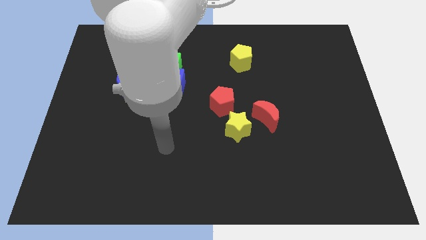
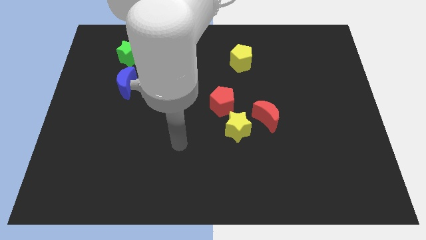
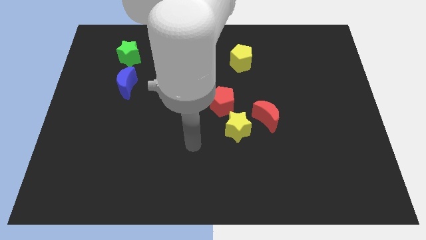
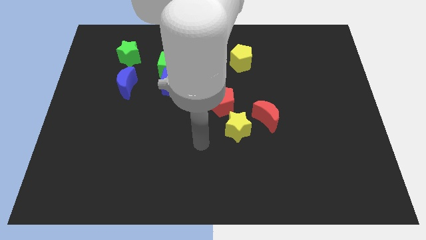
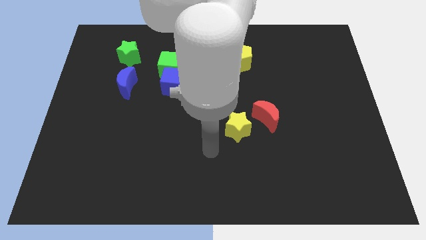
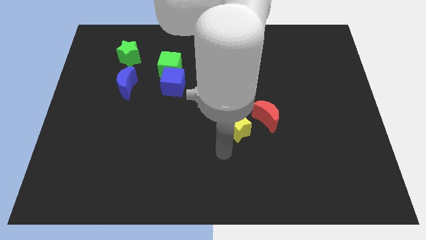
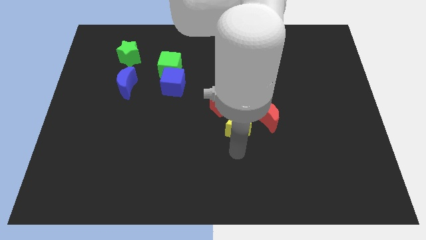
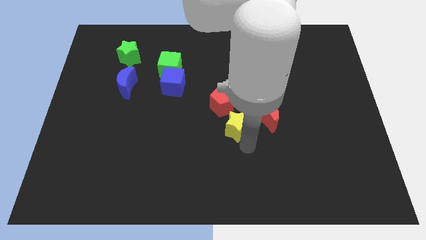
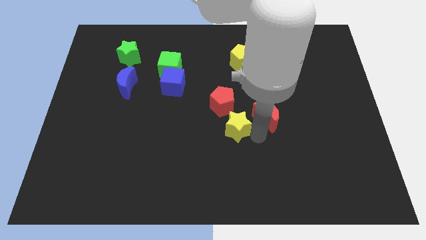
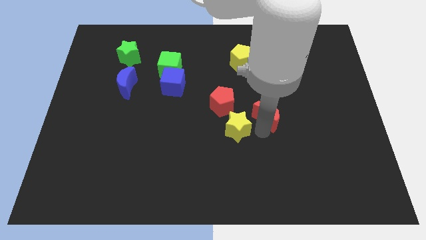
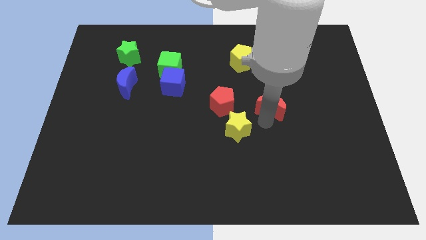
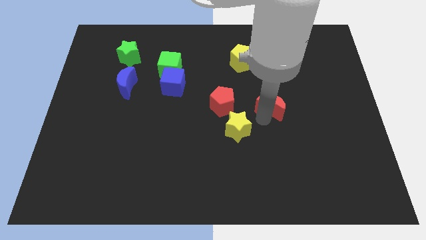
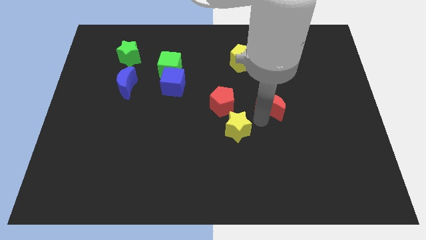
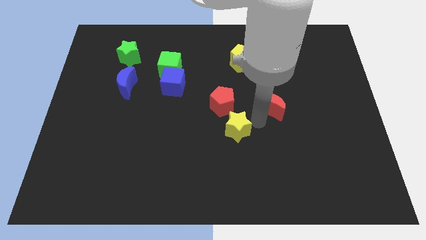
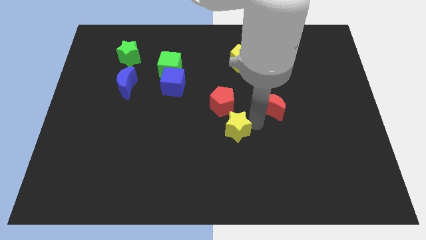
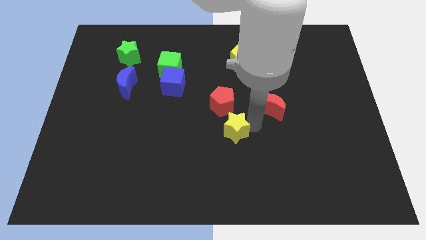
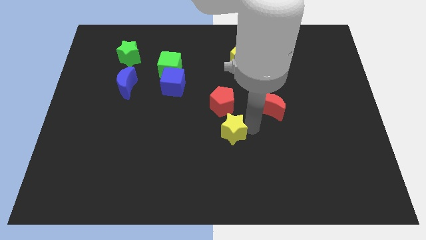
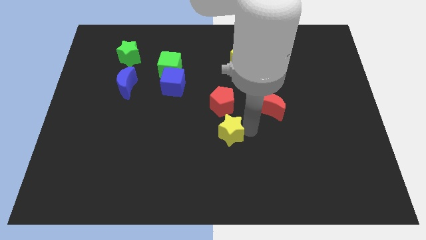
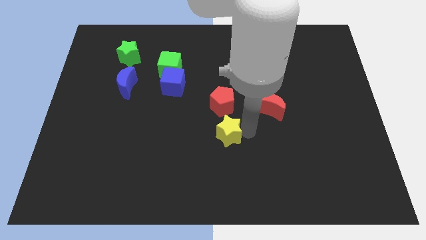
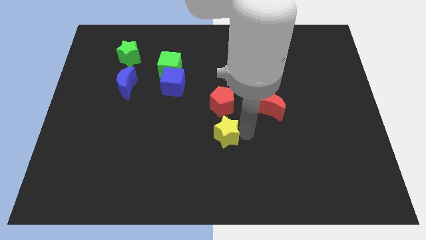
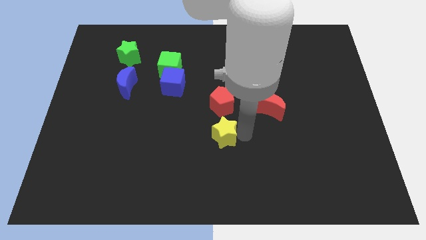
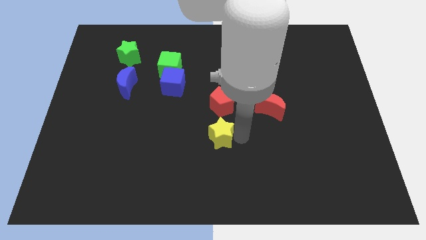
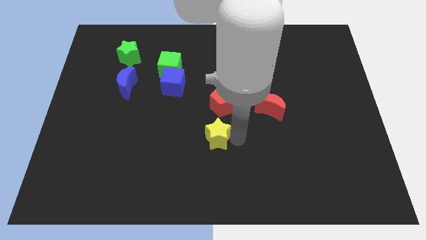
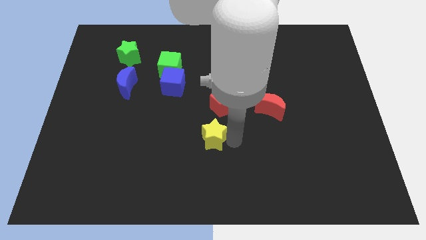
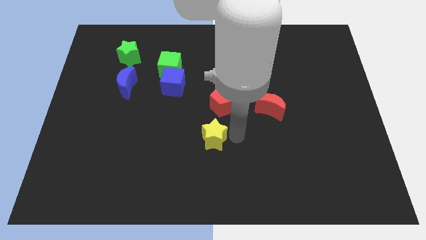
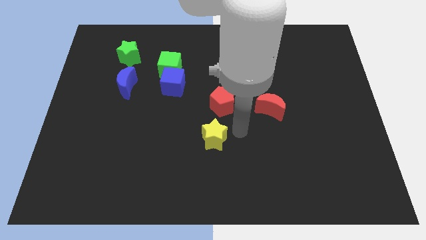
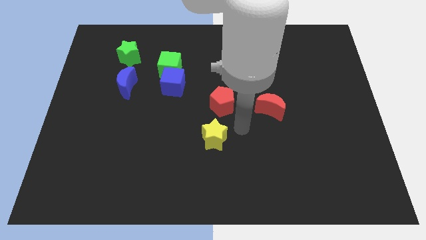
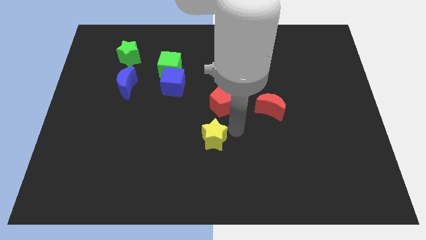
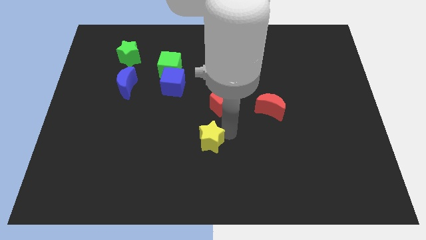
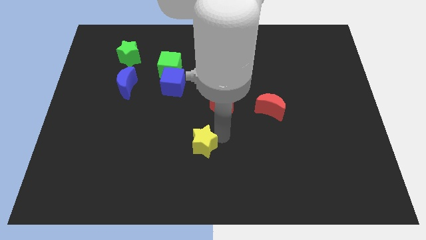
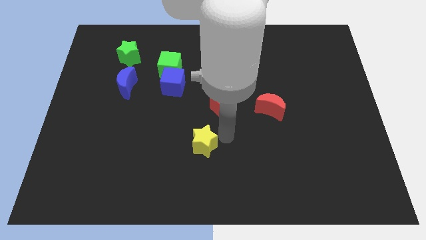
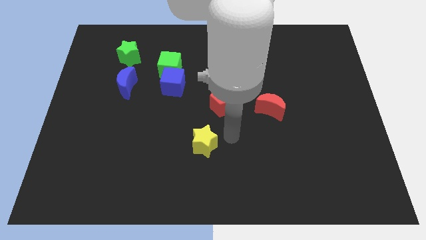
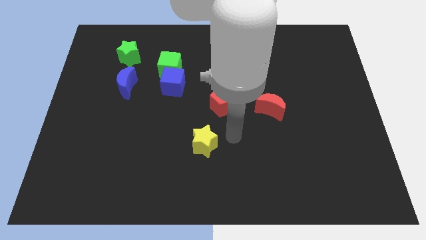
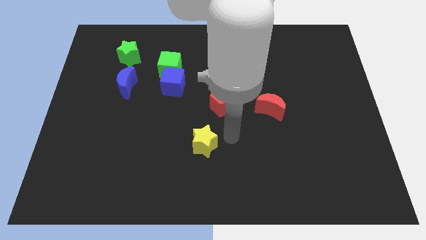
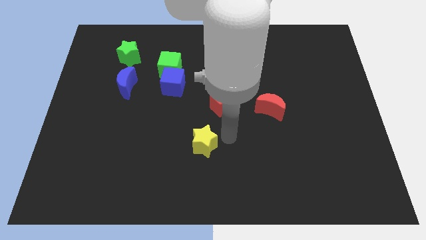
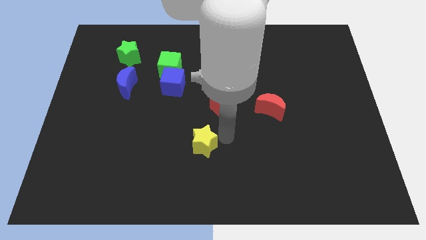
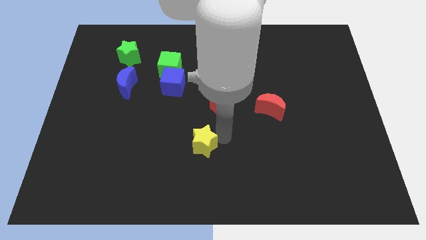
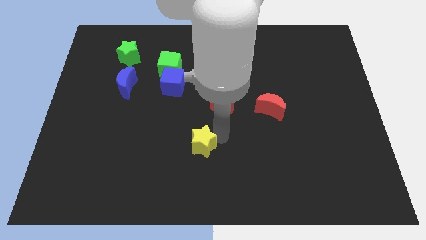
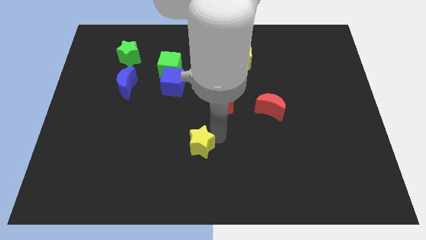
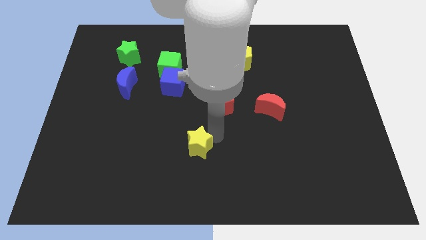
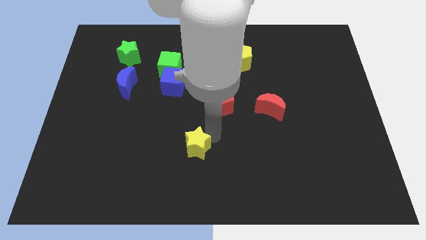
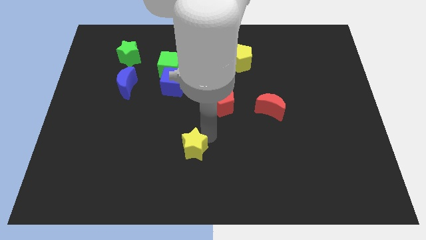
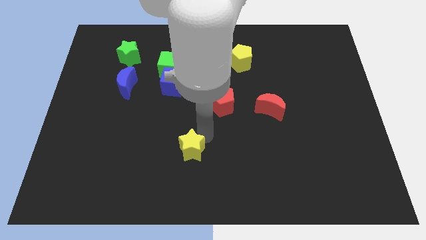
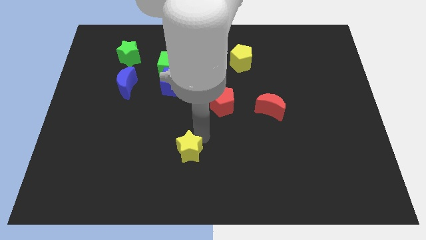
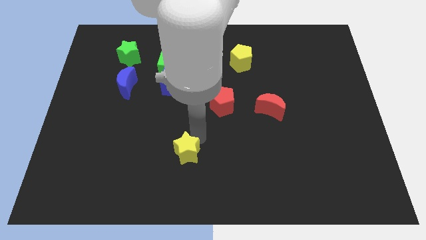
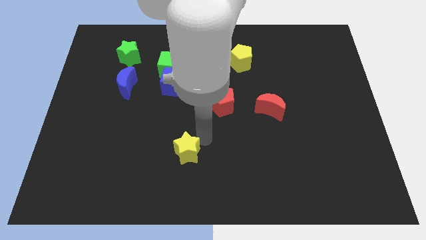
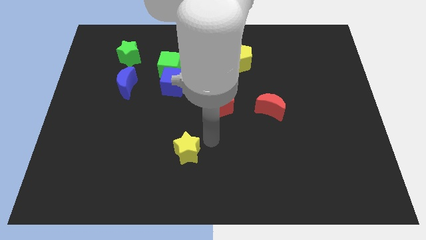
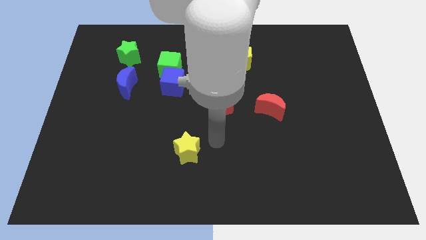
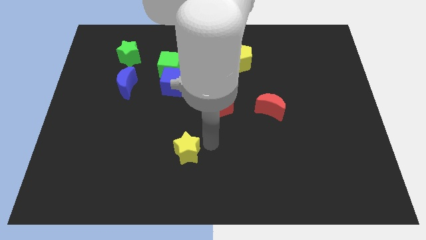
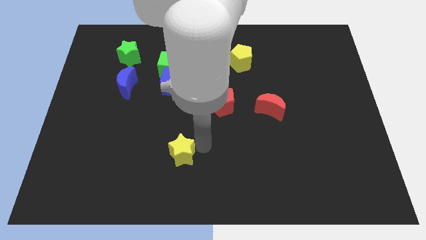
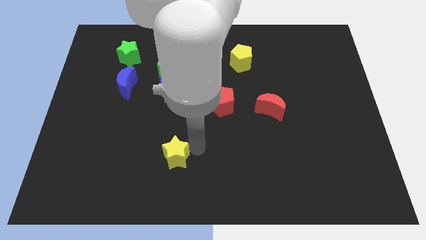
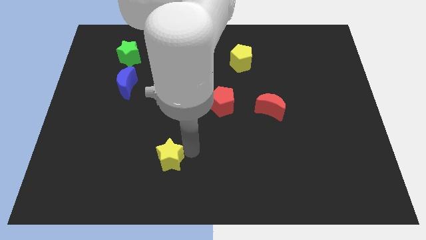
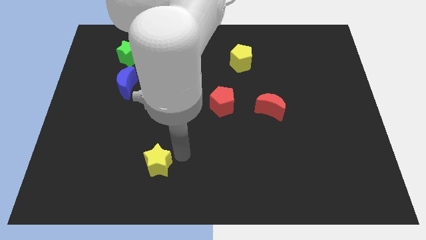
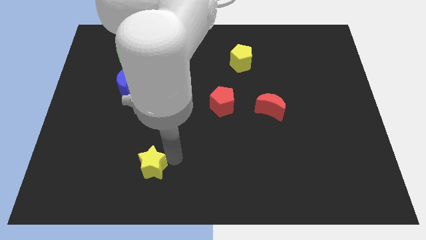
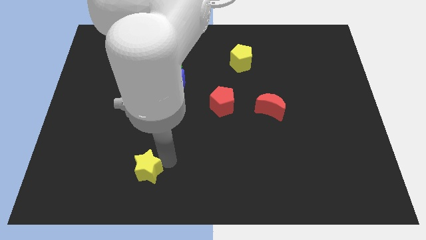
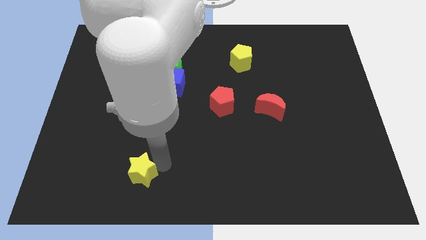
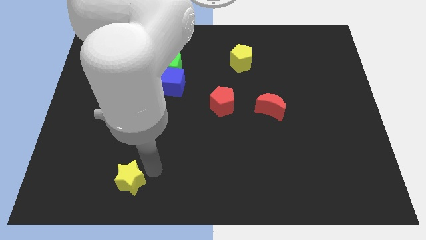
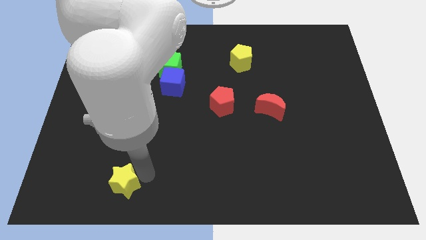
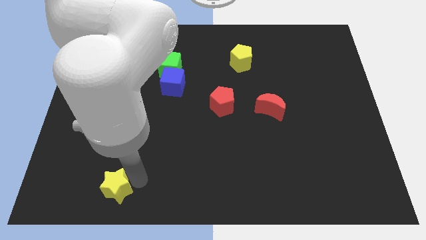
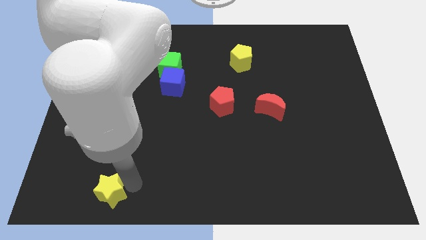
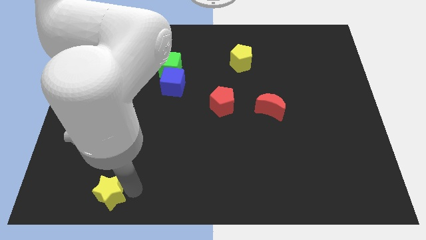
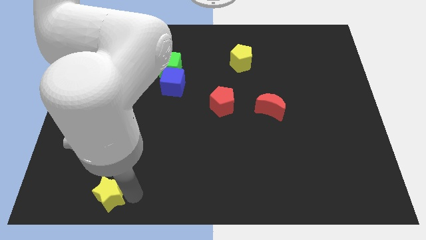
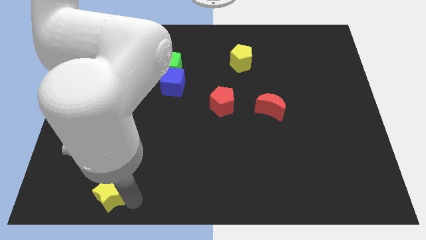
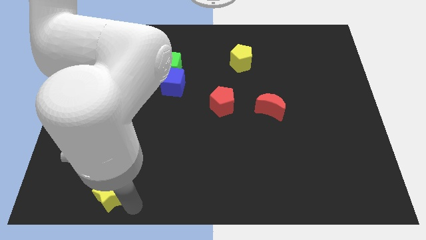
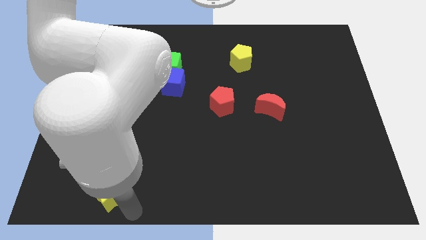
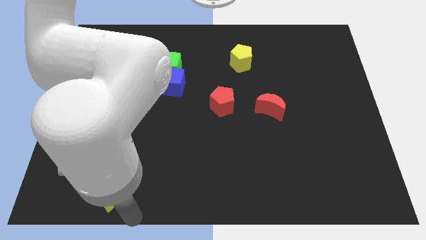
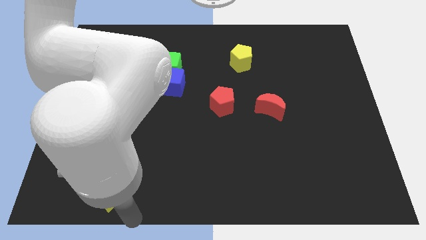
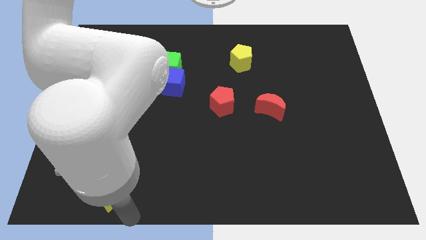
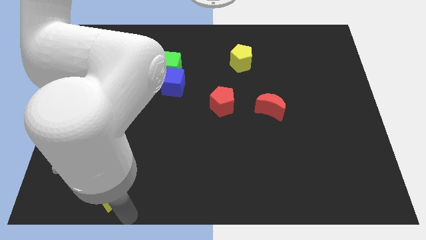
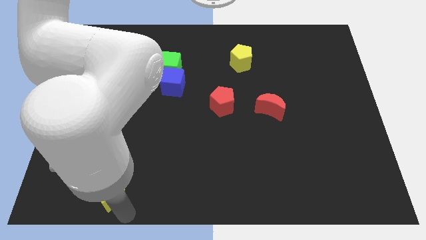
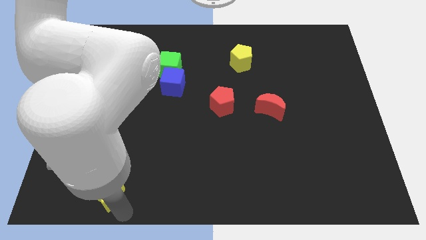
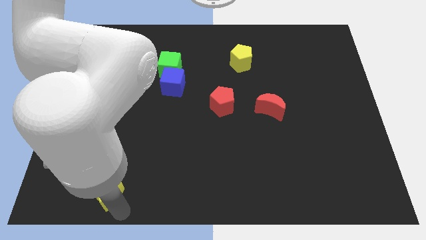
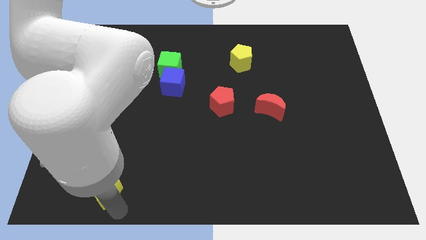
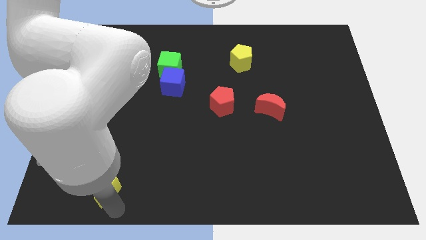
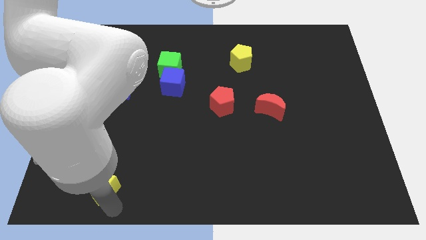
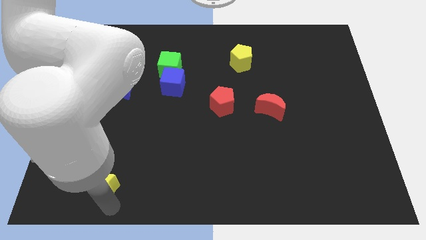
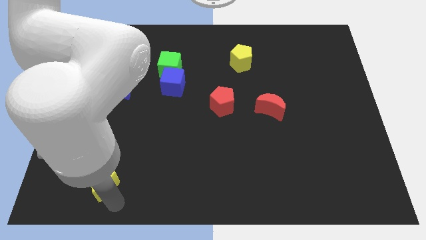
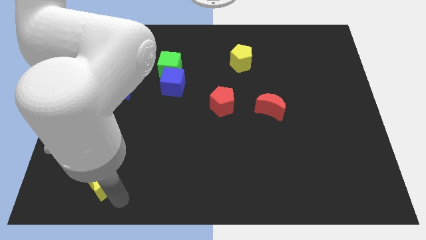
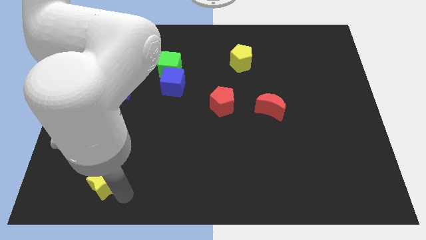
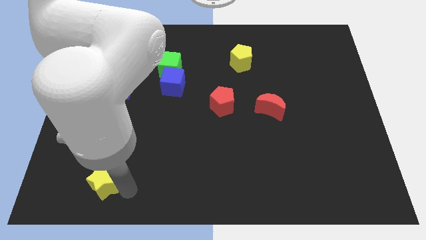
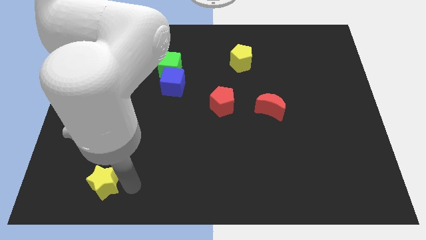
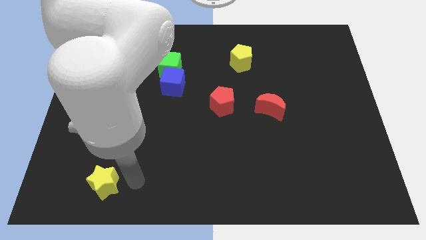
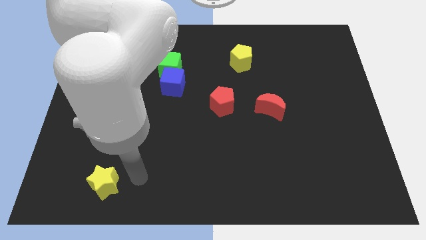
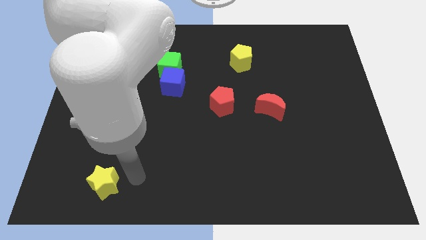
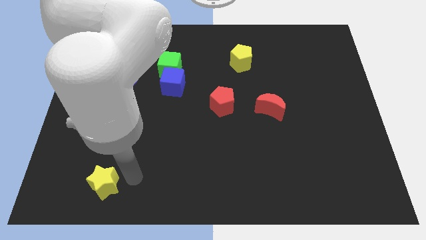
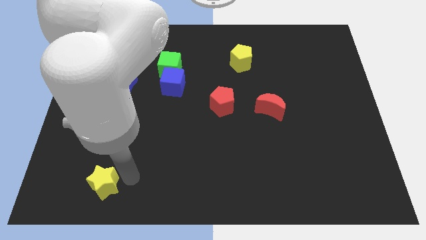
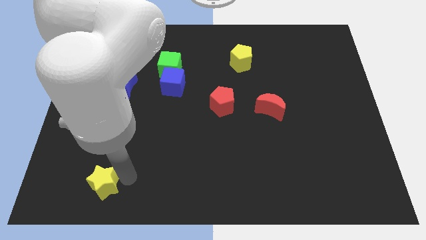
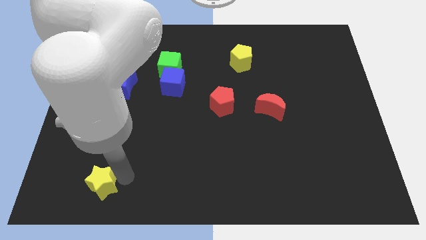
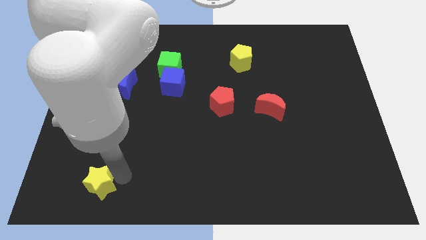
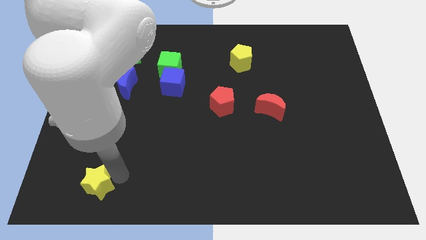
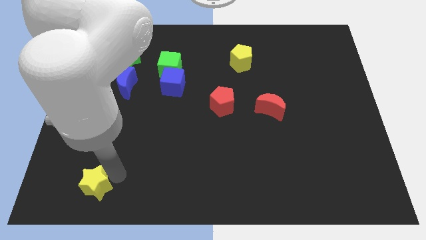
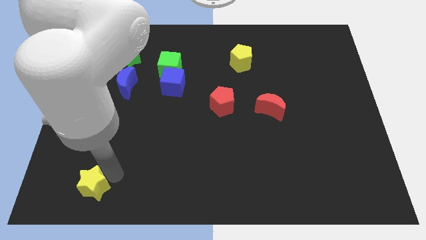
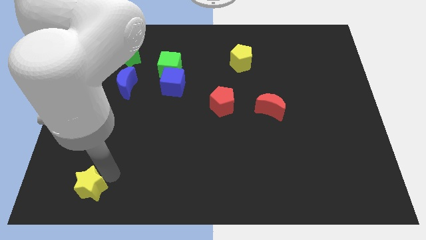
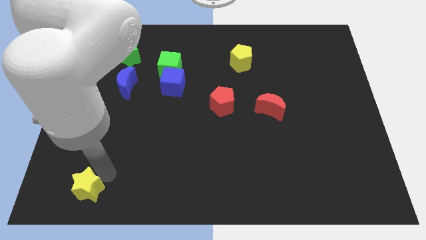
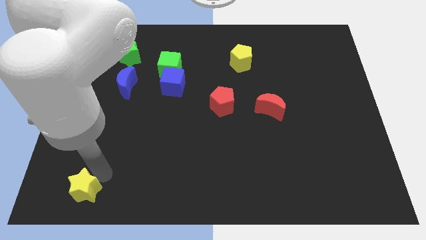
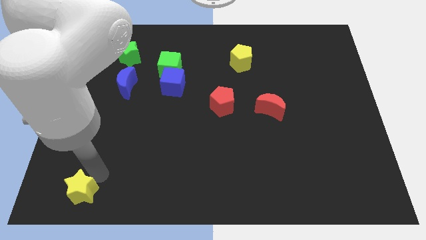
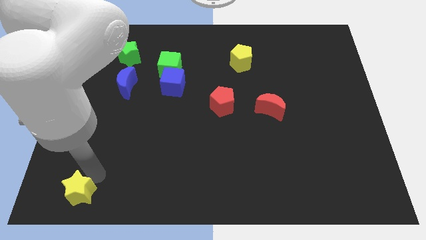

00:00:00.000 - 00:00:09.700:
put the yellow star to the bottom left corner
